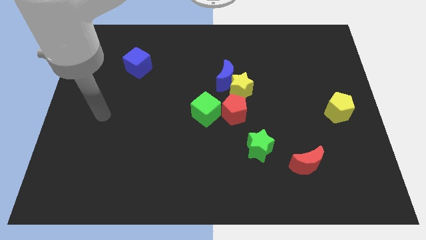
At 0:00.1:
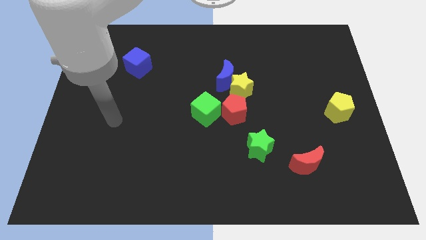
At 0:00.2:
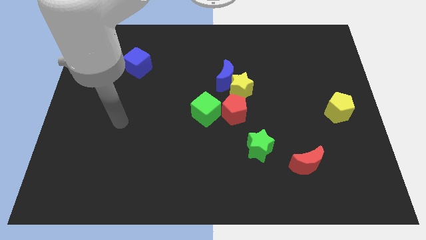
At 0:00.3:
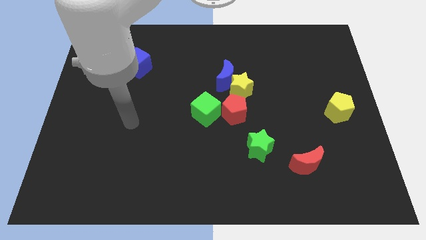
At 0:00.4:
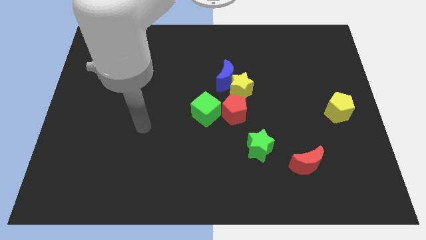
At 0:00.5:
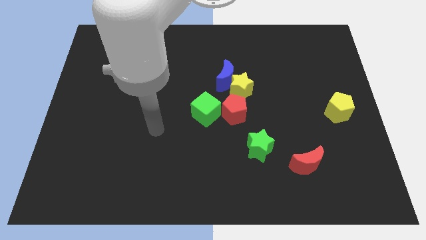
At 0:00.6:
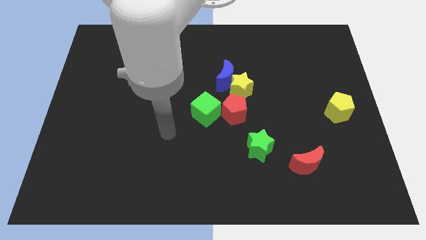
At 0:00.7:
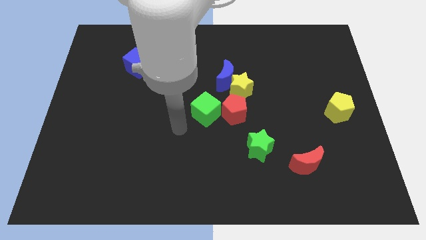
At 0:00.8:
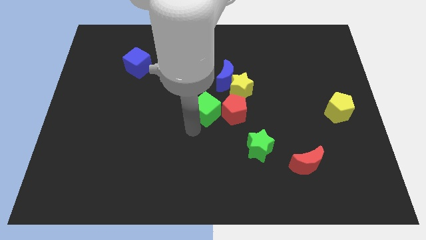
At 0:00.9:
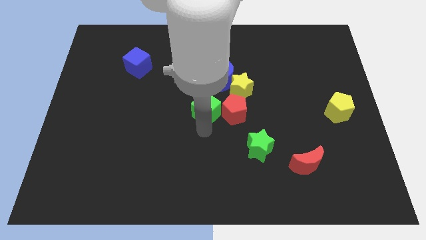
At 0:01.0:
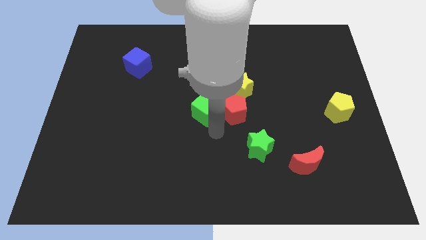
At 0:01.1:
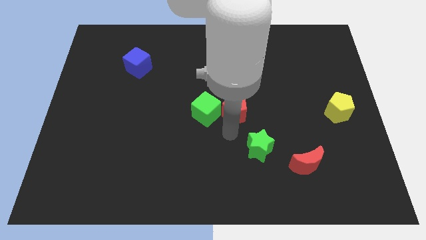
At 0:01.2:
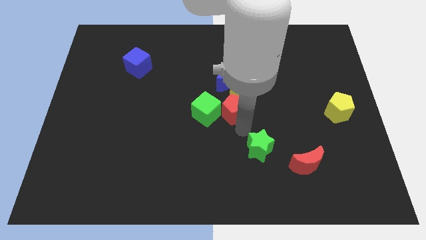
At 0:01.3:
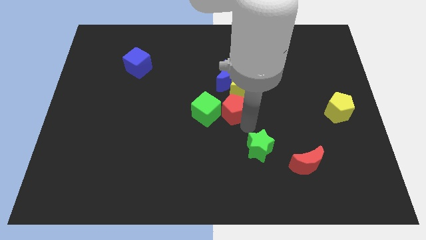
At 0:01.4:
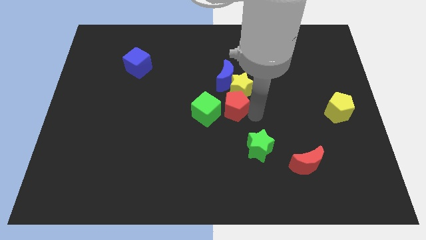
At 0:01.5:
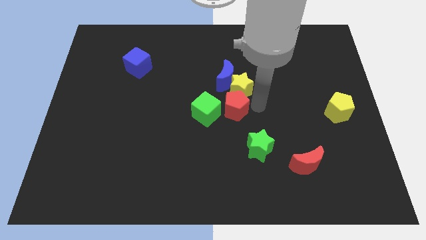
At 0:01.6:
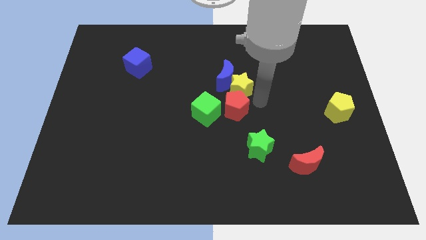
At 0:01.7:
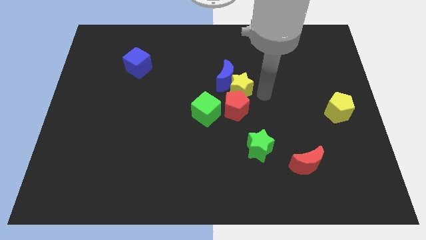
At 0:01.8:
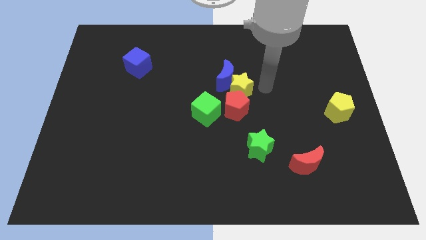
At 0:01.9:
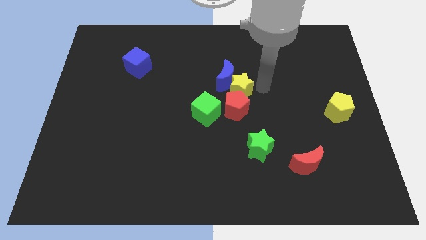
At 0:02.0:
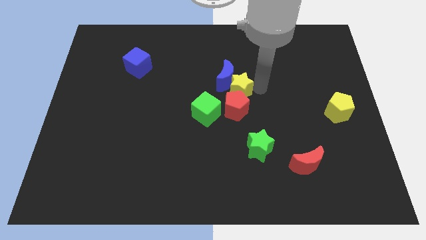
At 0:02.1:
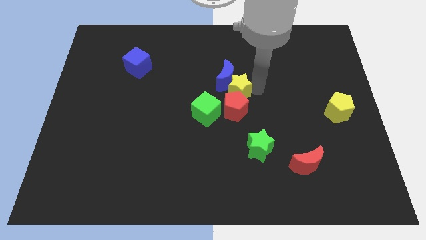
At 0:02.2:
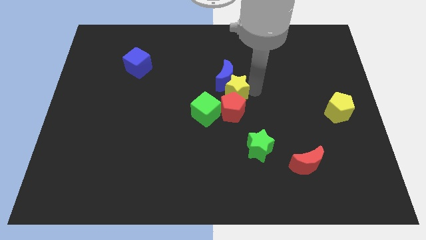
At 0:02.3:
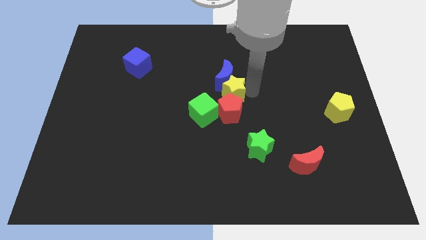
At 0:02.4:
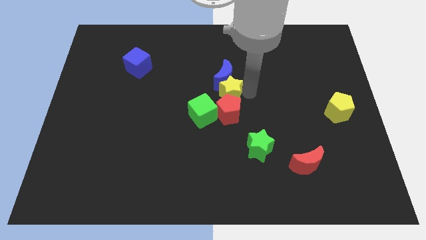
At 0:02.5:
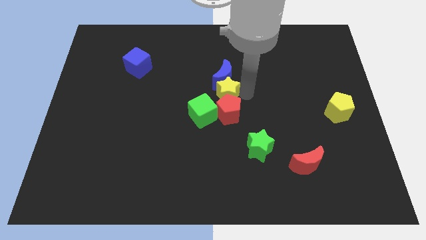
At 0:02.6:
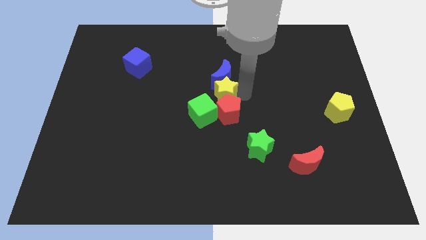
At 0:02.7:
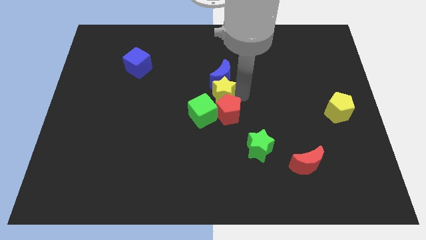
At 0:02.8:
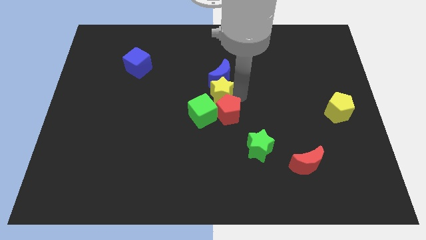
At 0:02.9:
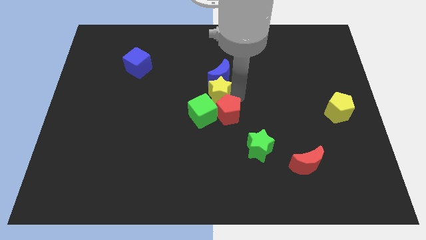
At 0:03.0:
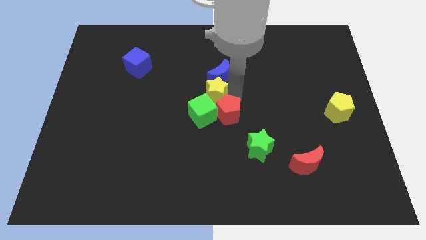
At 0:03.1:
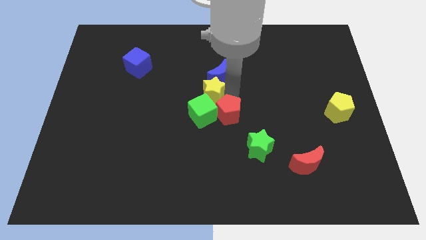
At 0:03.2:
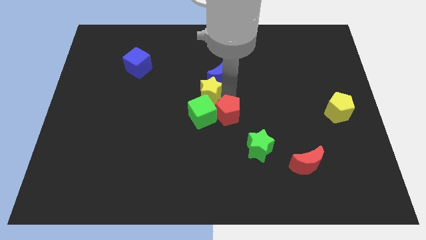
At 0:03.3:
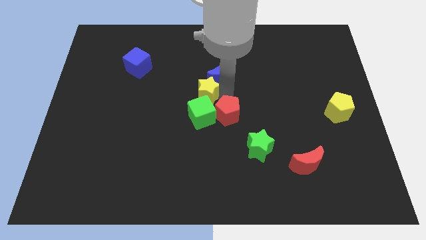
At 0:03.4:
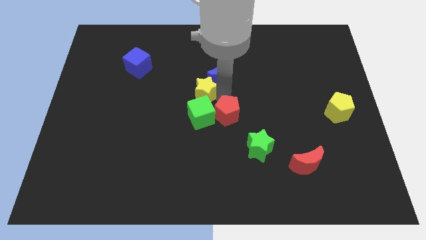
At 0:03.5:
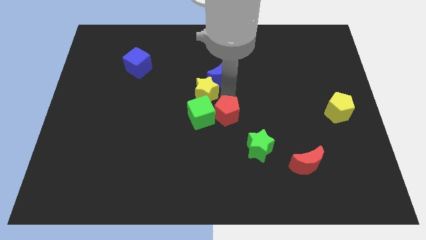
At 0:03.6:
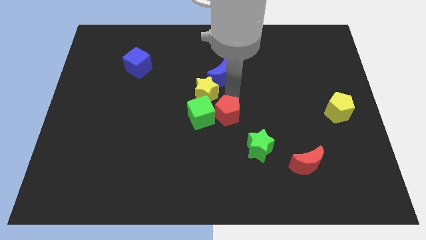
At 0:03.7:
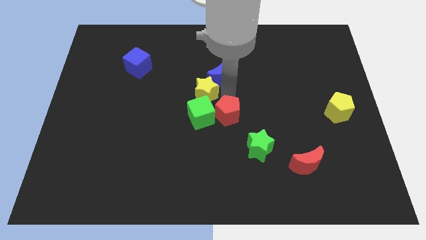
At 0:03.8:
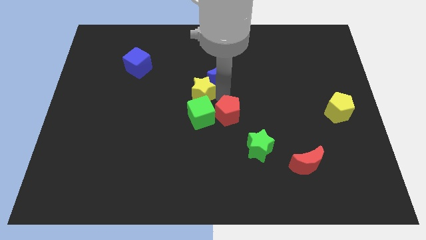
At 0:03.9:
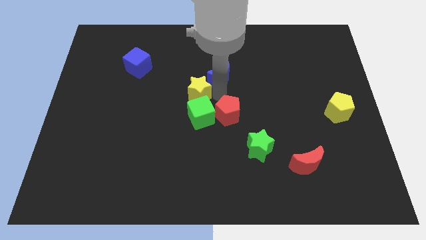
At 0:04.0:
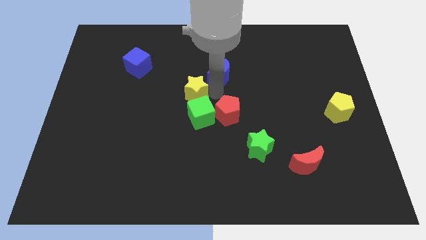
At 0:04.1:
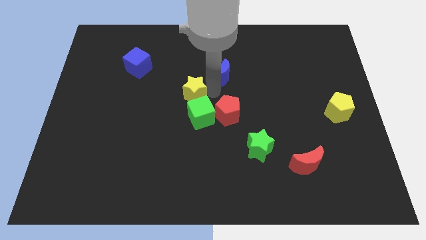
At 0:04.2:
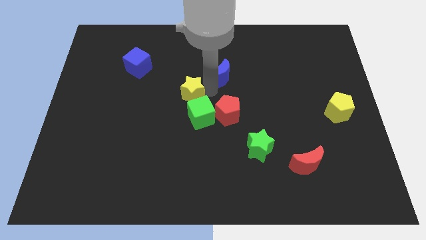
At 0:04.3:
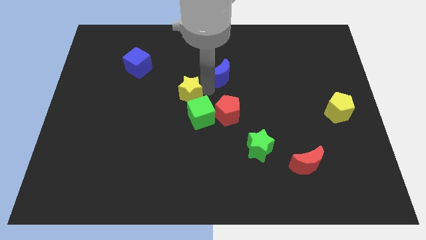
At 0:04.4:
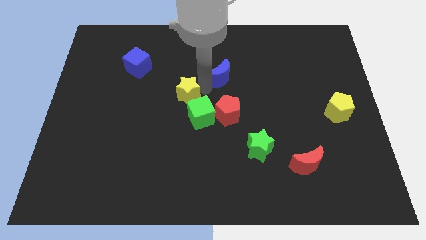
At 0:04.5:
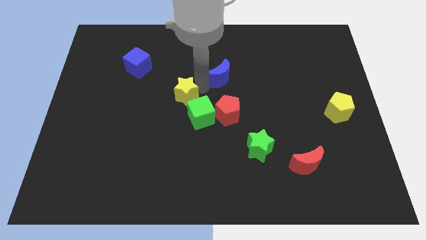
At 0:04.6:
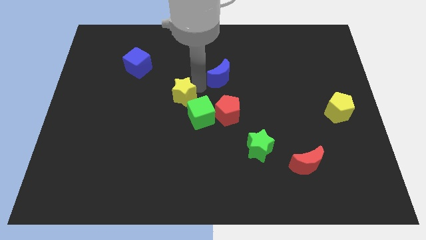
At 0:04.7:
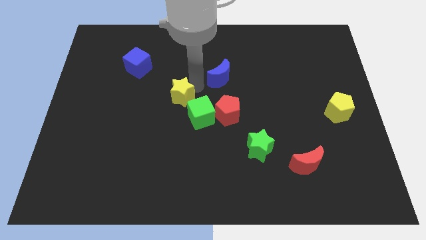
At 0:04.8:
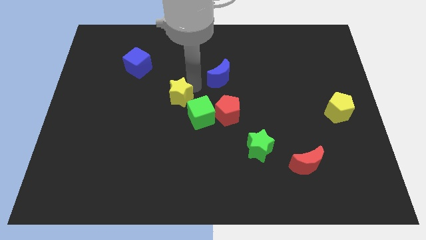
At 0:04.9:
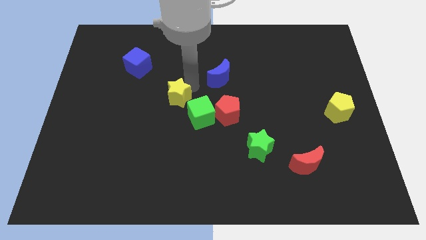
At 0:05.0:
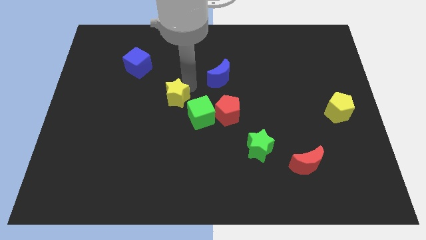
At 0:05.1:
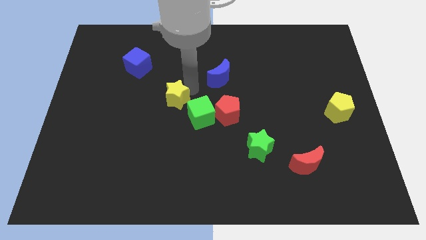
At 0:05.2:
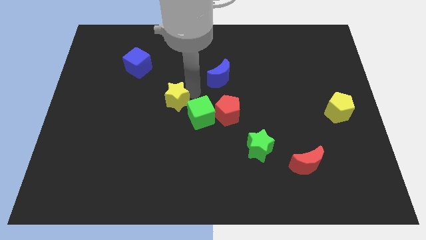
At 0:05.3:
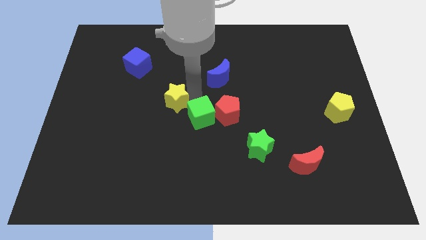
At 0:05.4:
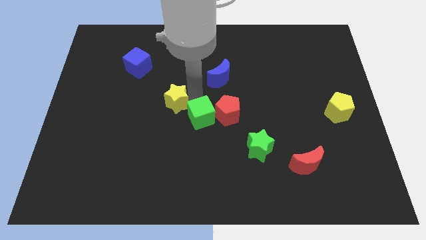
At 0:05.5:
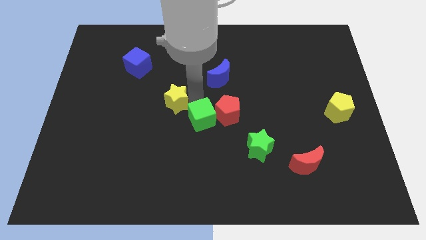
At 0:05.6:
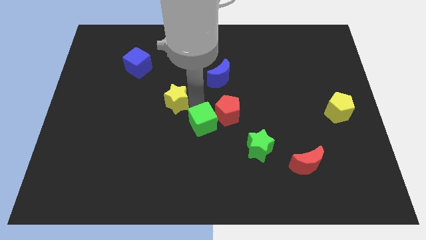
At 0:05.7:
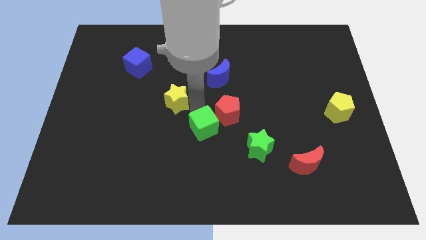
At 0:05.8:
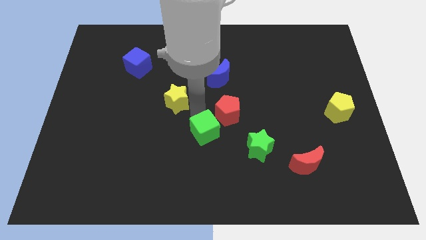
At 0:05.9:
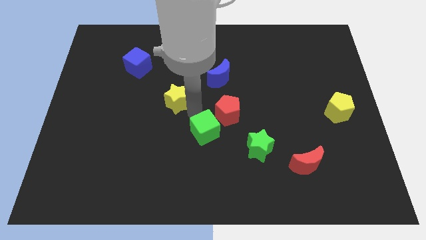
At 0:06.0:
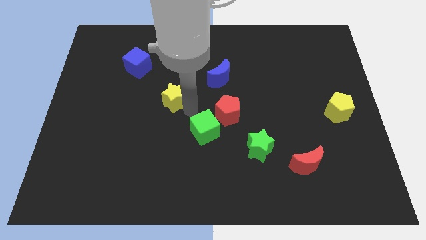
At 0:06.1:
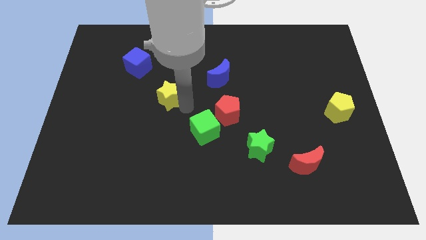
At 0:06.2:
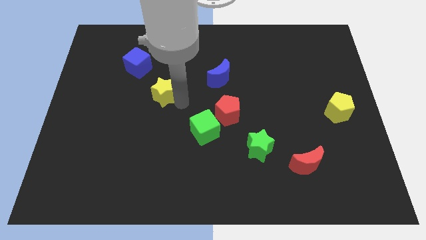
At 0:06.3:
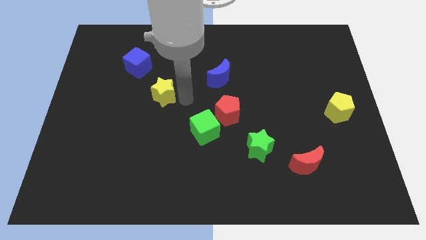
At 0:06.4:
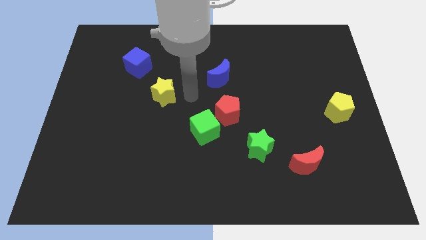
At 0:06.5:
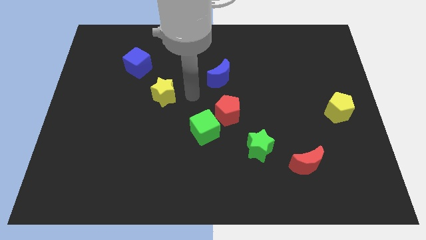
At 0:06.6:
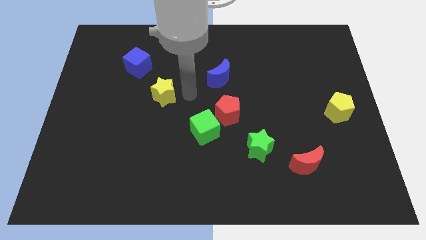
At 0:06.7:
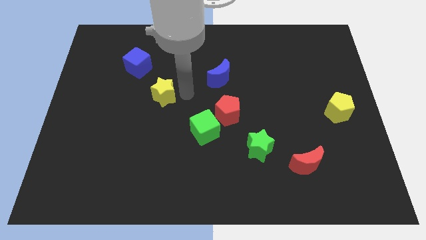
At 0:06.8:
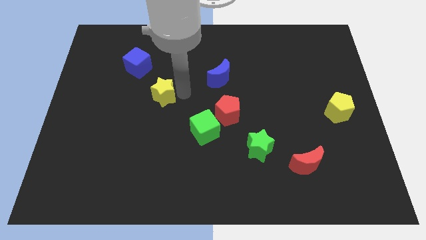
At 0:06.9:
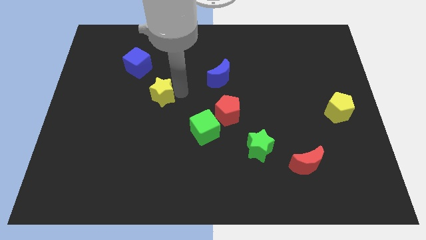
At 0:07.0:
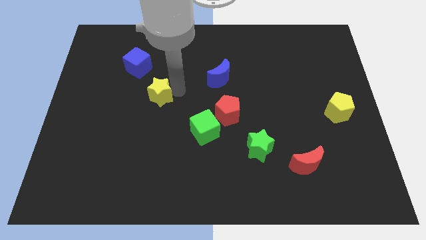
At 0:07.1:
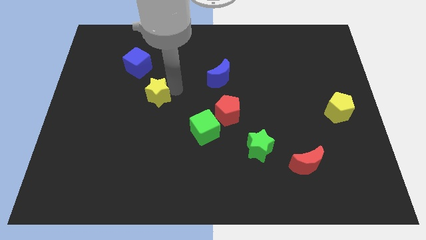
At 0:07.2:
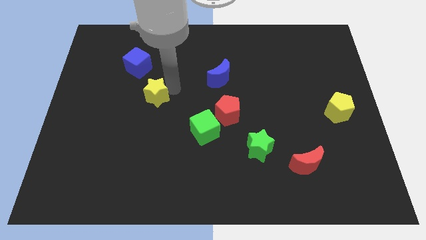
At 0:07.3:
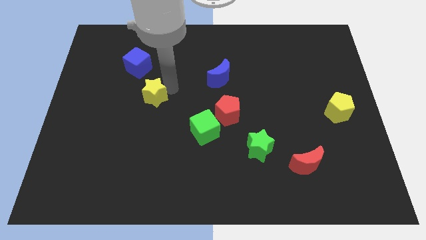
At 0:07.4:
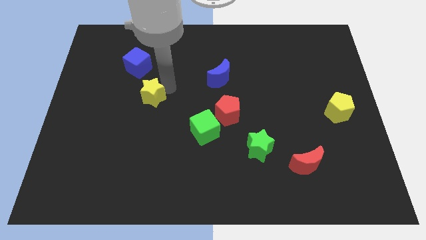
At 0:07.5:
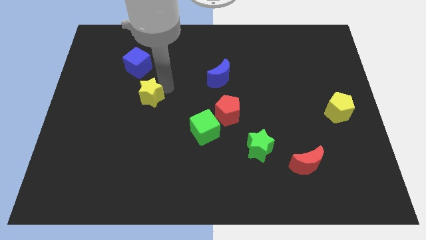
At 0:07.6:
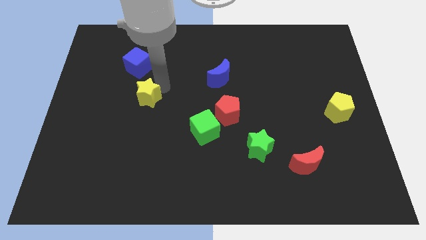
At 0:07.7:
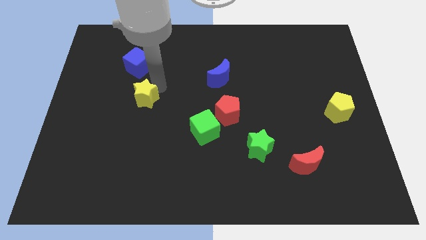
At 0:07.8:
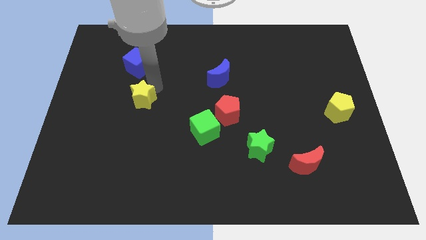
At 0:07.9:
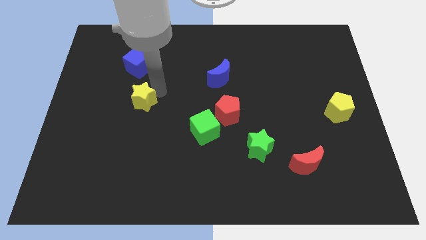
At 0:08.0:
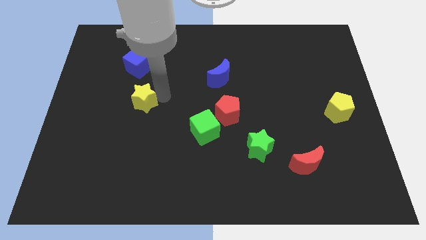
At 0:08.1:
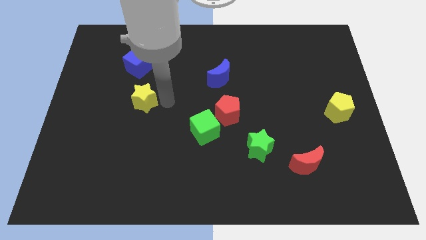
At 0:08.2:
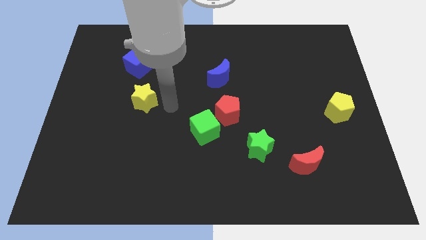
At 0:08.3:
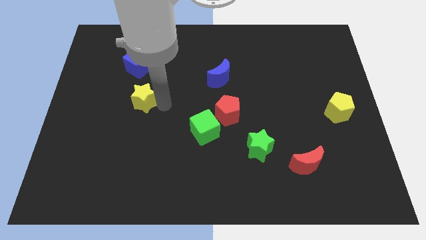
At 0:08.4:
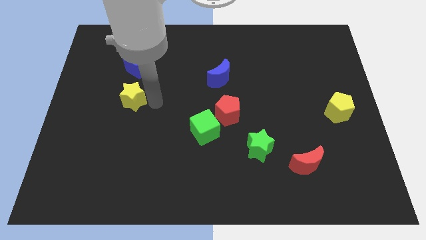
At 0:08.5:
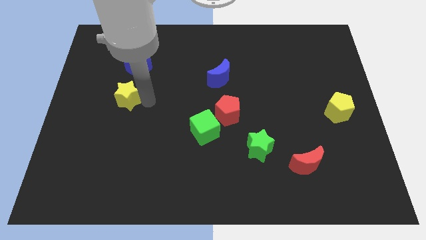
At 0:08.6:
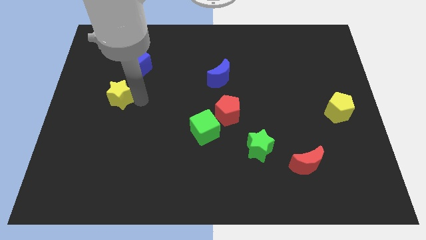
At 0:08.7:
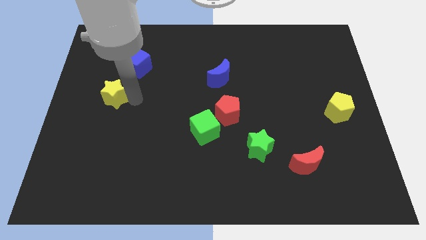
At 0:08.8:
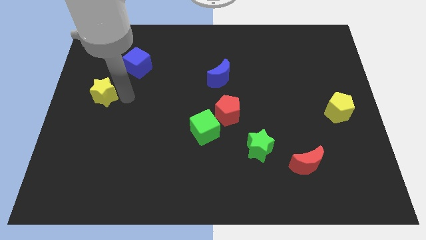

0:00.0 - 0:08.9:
put the yellow star to the left side of the board
